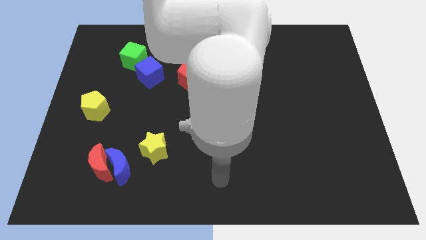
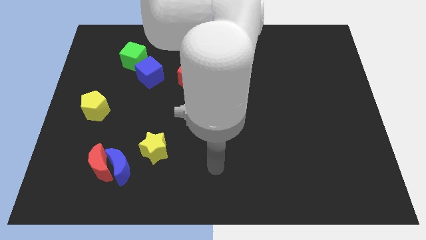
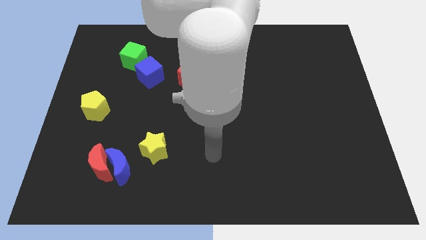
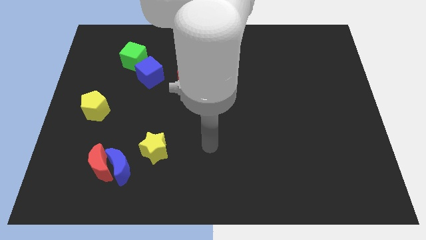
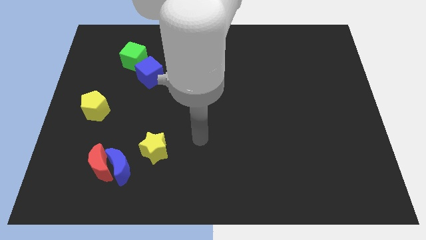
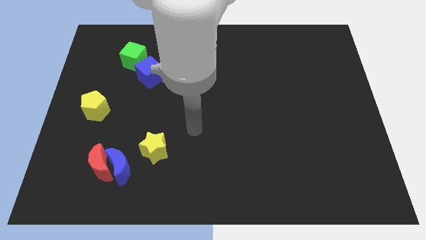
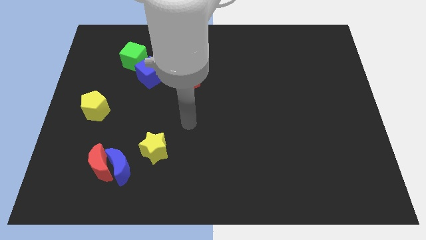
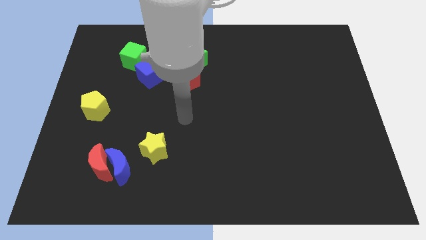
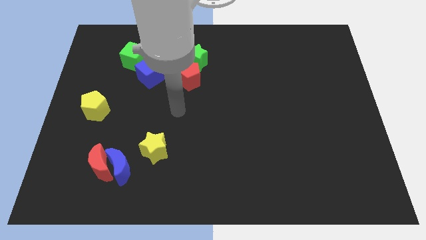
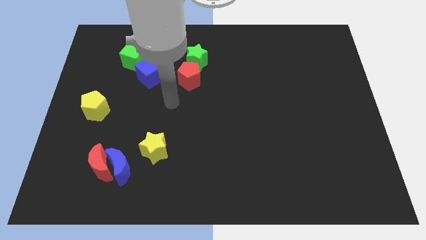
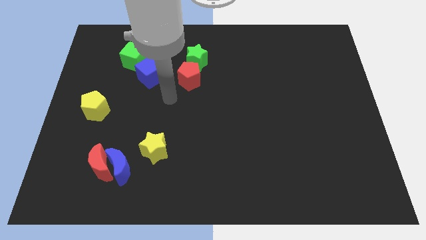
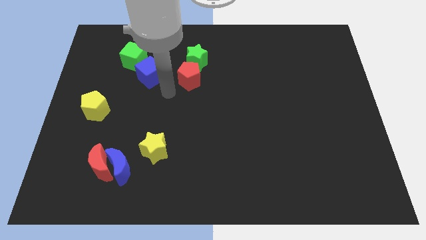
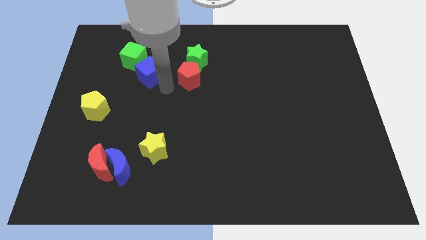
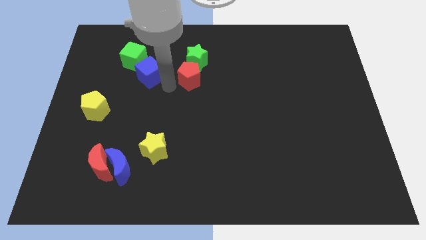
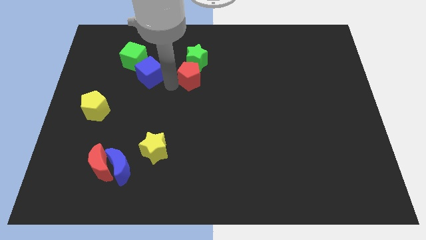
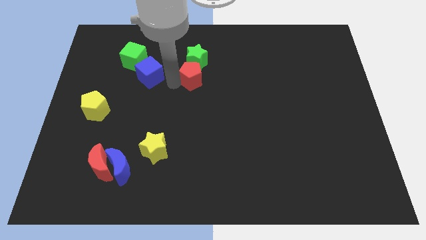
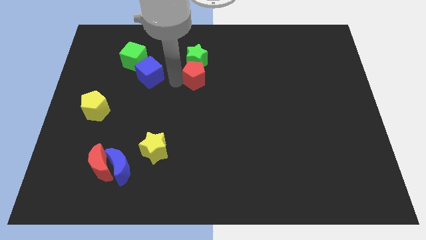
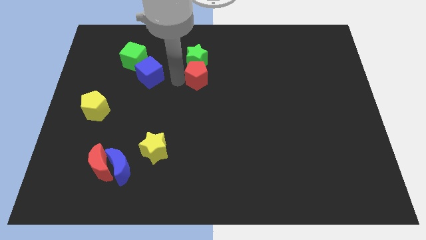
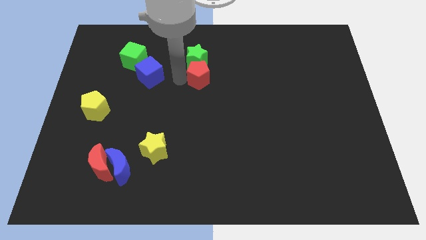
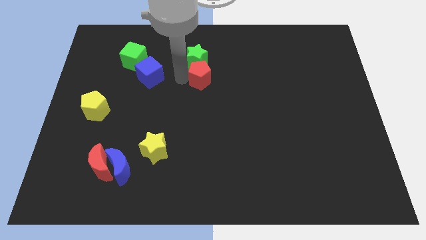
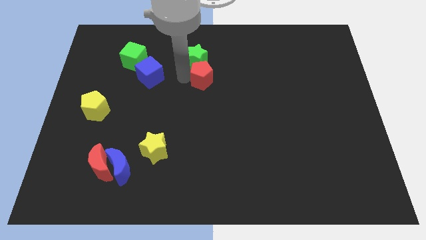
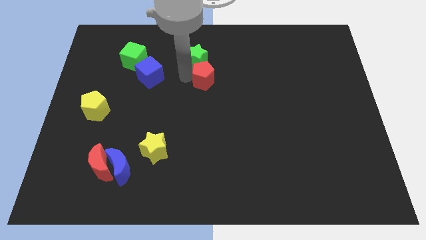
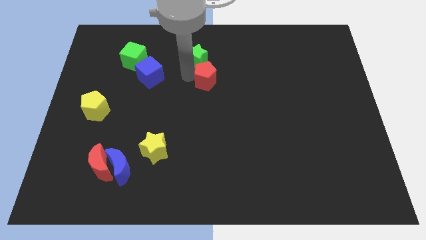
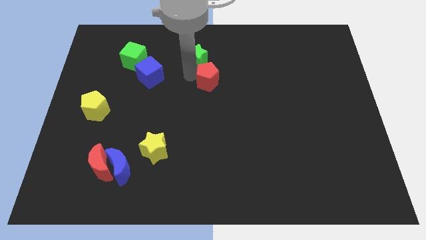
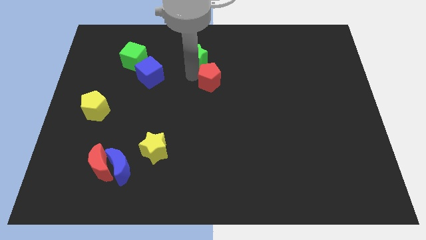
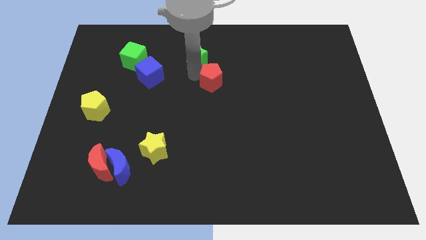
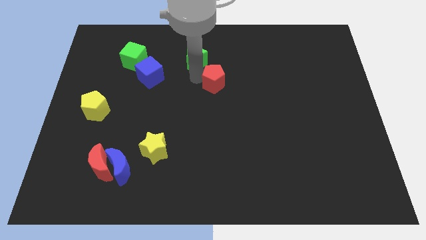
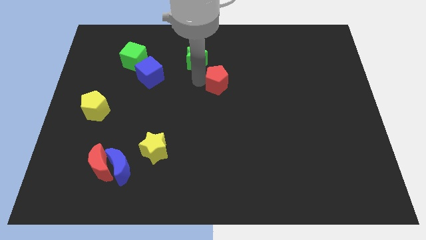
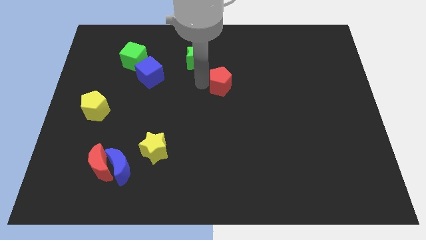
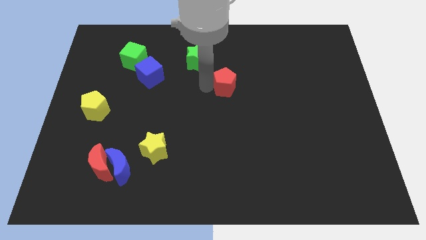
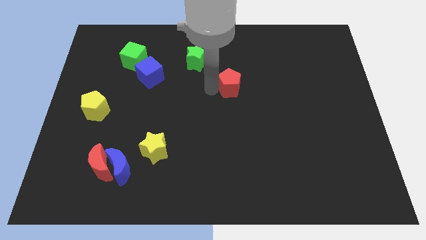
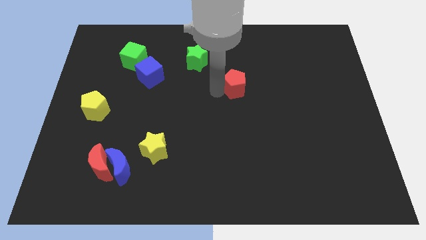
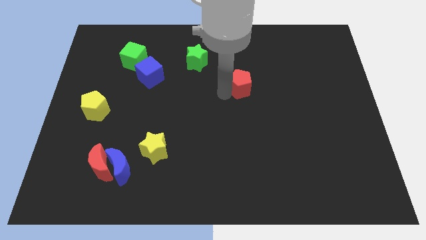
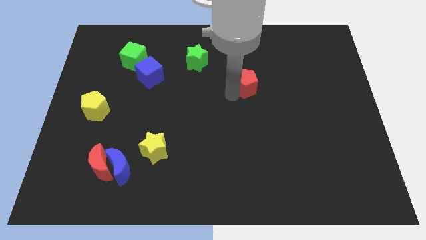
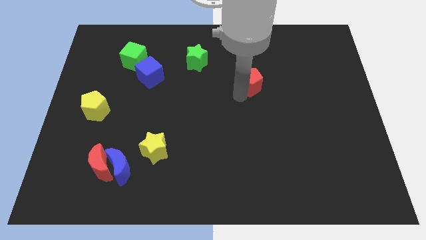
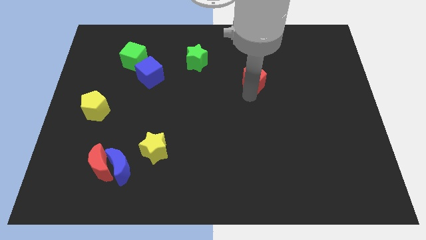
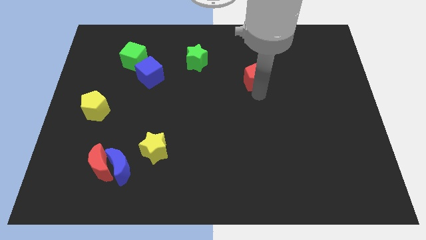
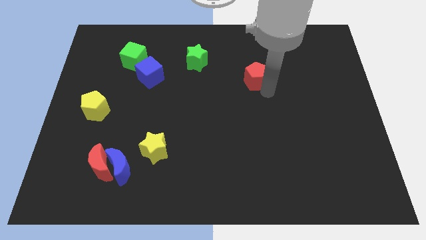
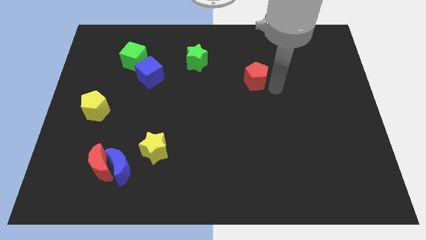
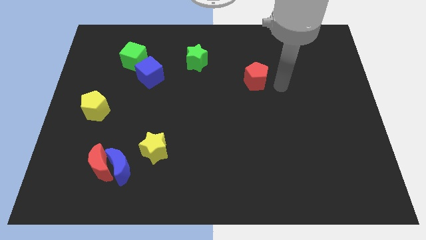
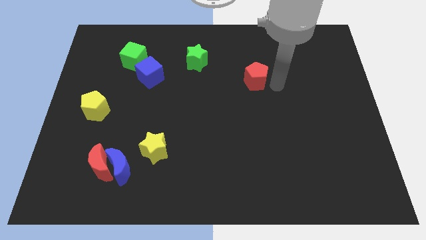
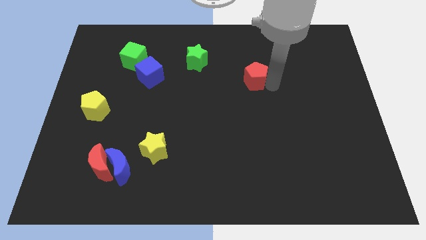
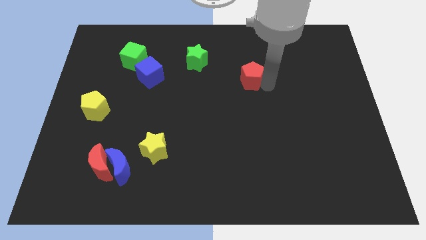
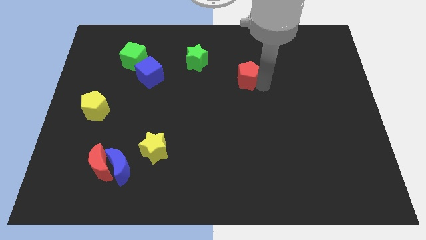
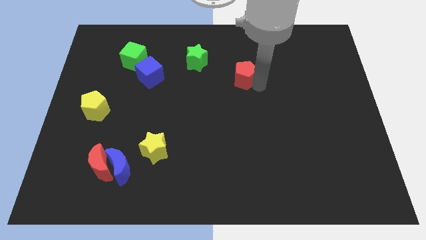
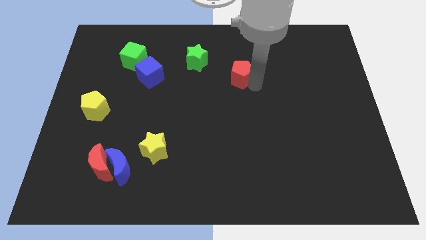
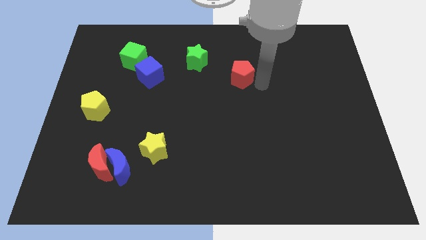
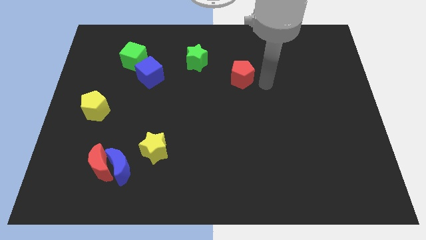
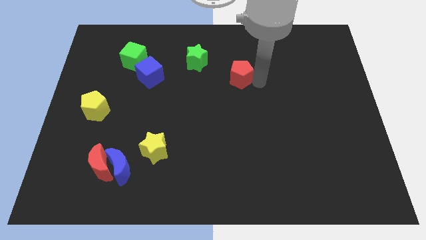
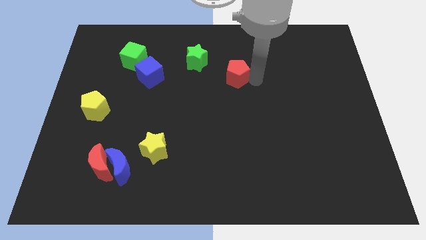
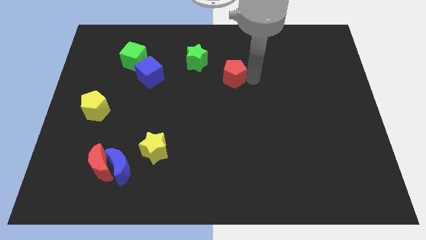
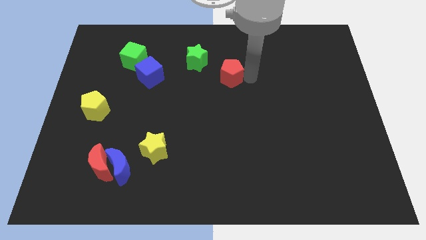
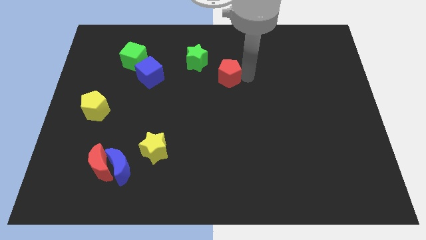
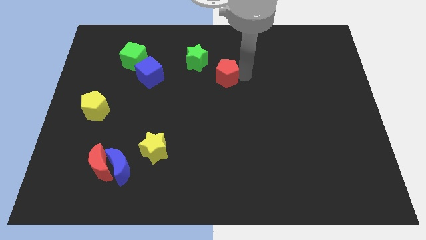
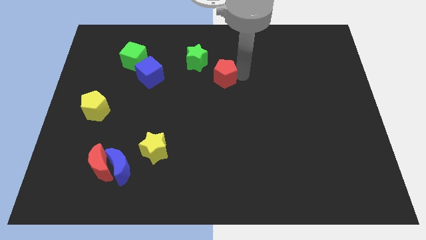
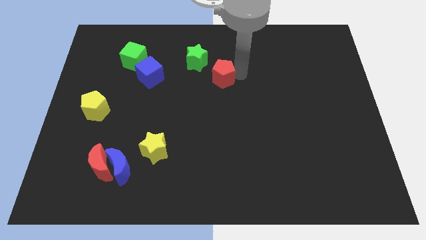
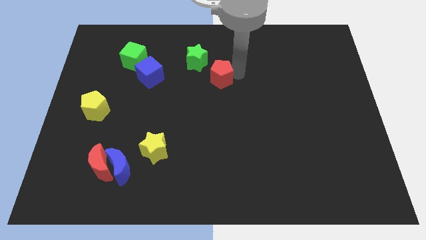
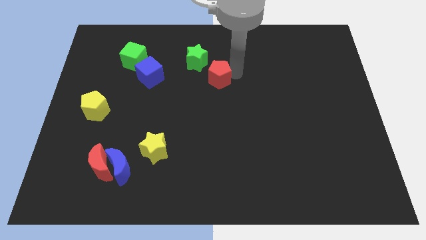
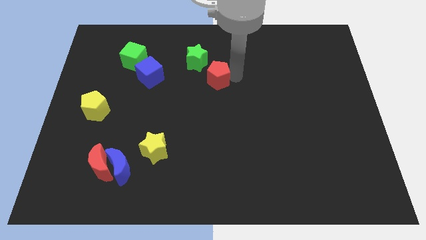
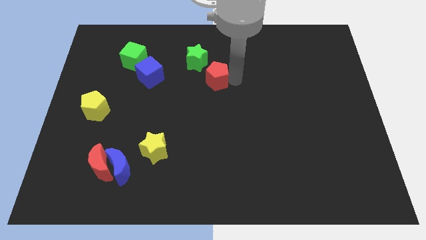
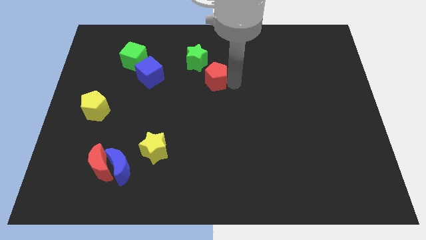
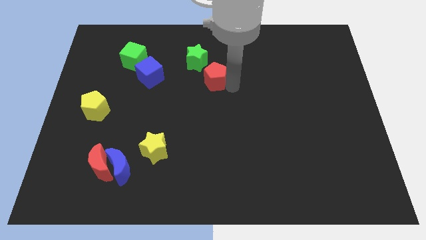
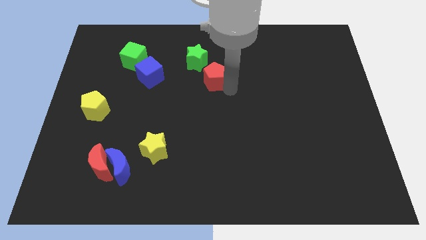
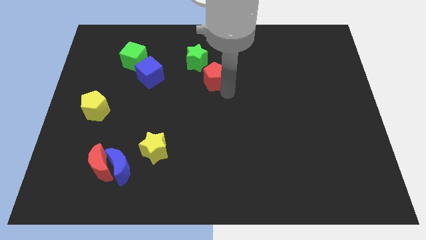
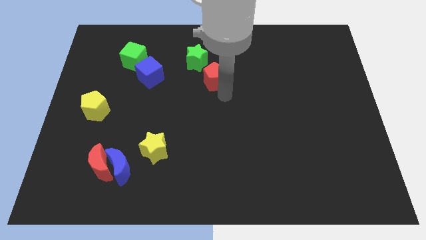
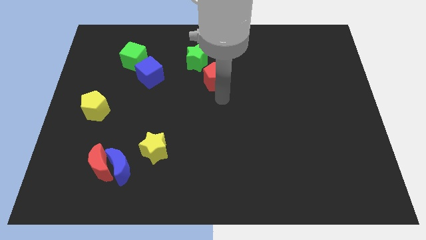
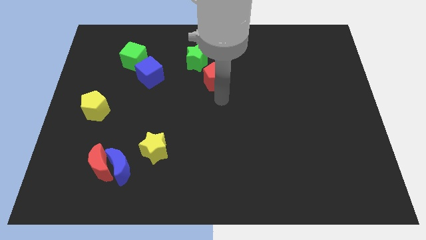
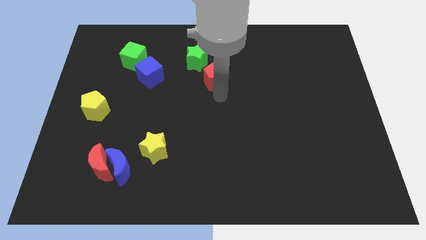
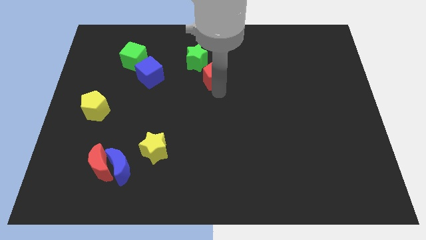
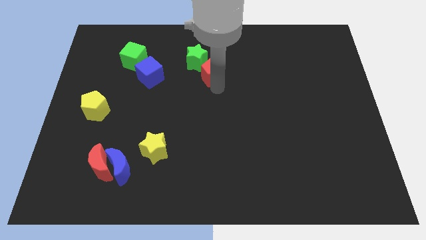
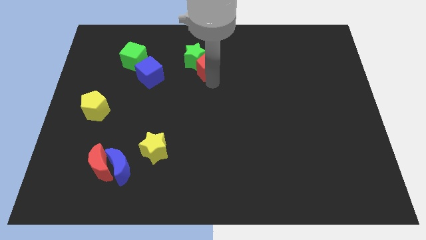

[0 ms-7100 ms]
move the red pentagon to the right side of the green star

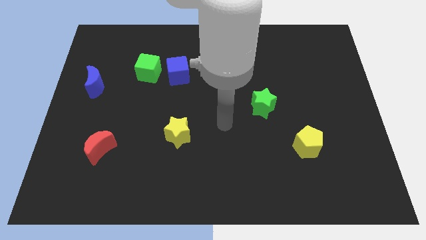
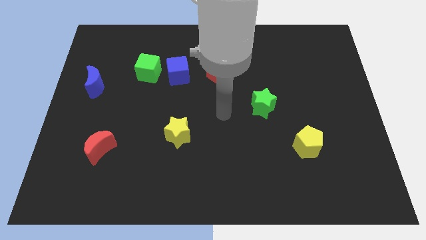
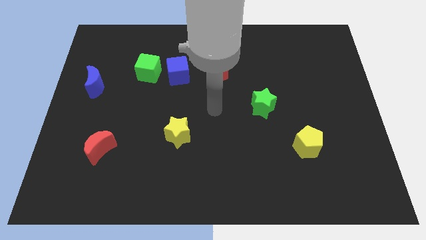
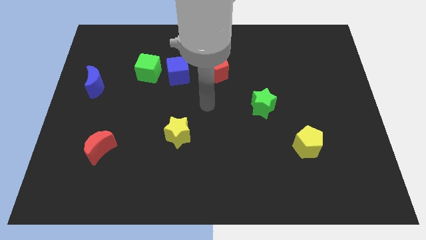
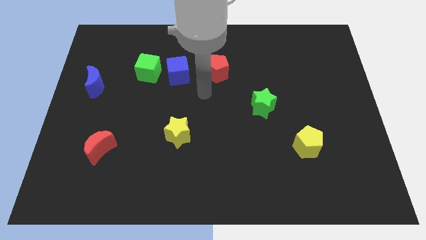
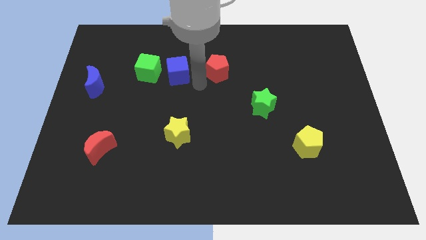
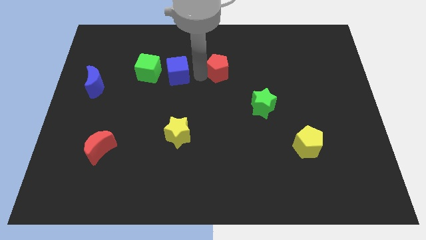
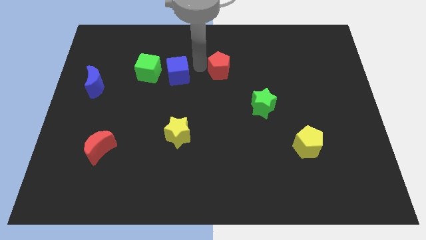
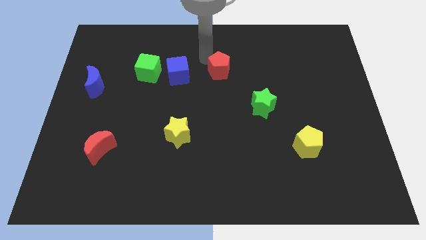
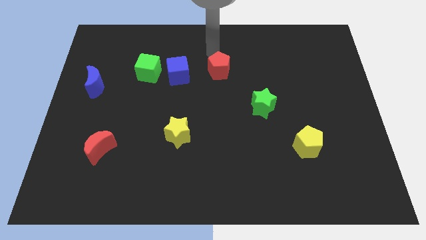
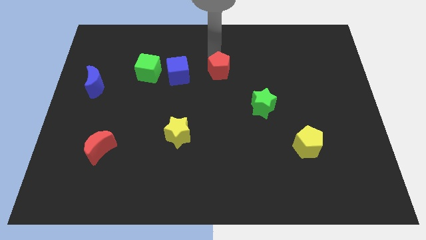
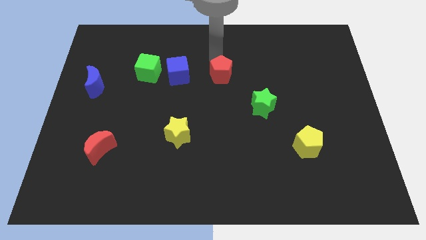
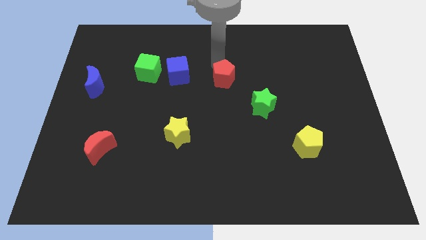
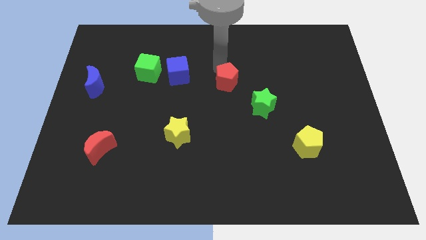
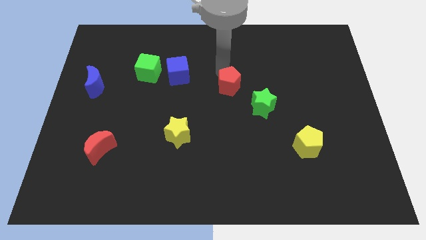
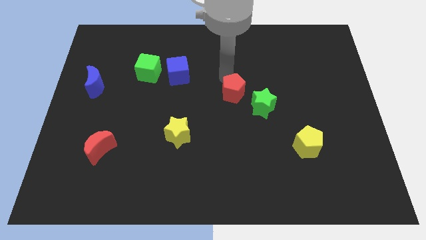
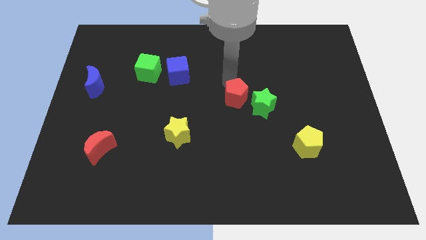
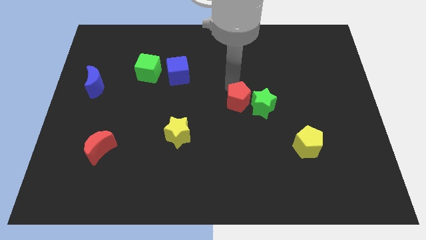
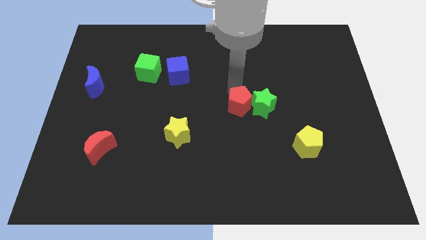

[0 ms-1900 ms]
put the red pentagon diagonally down and to the left of the green star
